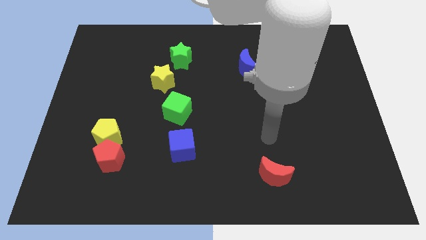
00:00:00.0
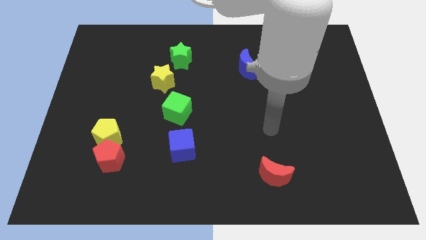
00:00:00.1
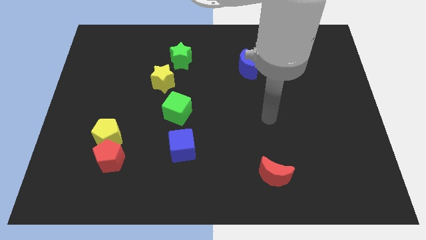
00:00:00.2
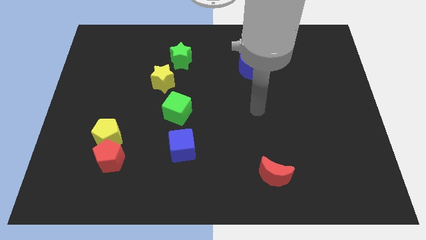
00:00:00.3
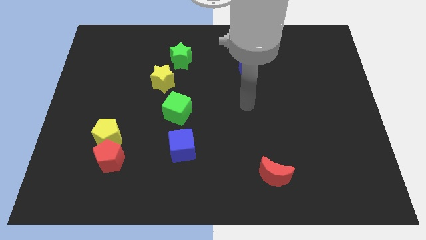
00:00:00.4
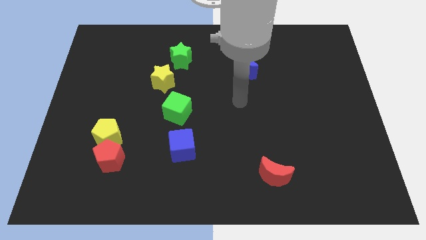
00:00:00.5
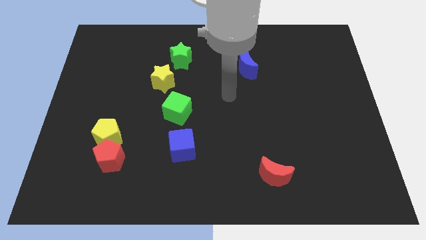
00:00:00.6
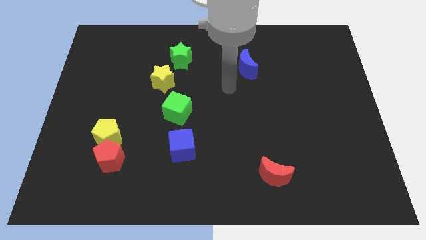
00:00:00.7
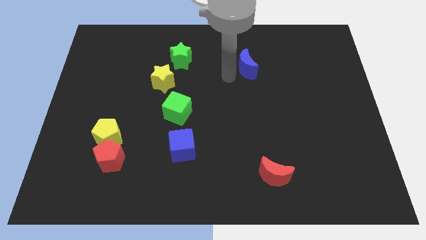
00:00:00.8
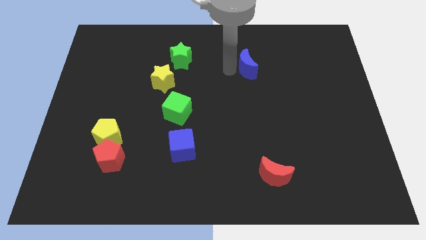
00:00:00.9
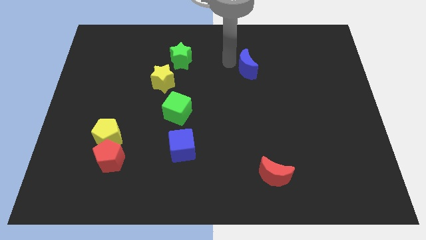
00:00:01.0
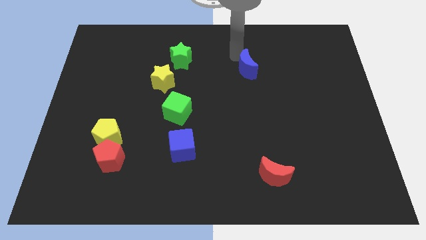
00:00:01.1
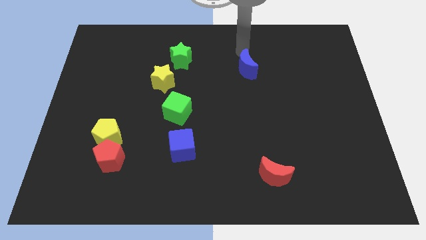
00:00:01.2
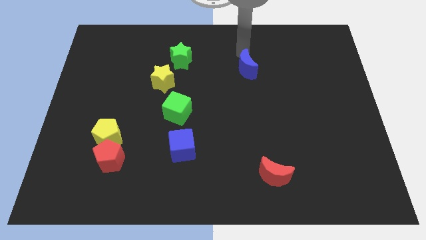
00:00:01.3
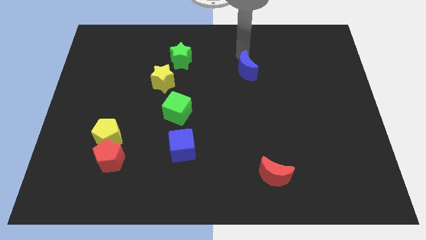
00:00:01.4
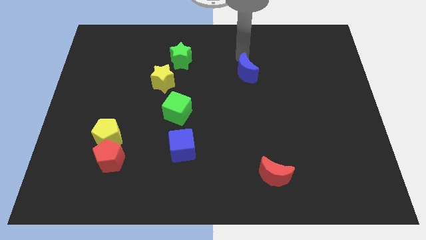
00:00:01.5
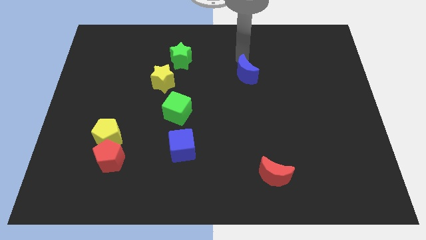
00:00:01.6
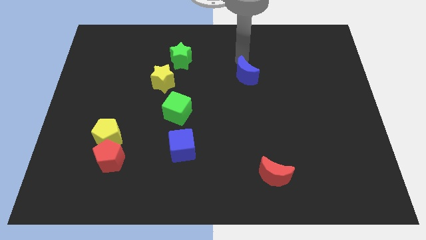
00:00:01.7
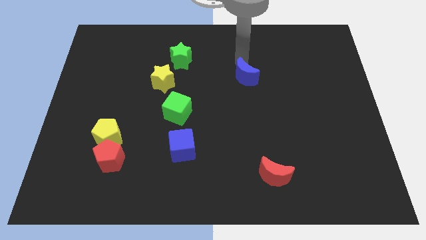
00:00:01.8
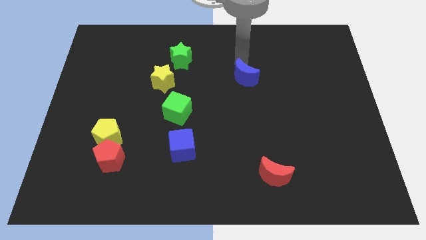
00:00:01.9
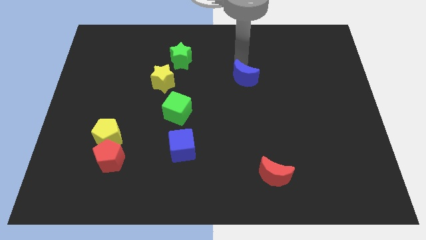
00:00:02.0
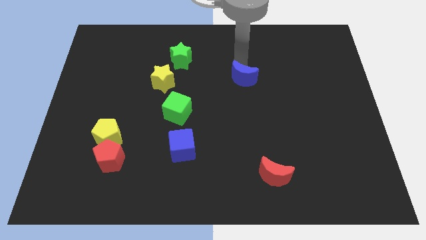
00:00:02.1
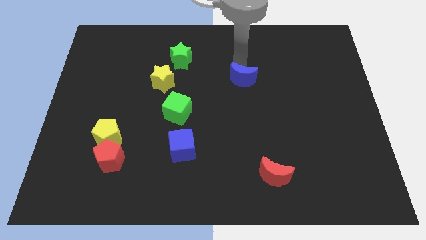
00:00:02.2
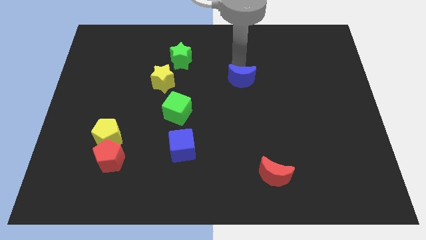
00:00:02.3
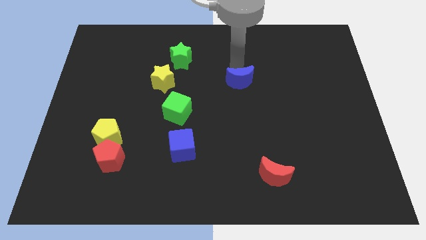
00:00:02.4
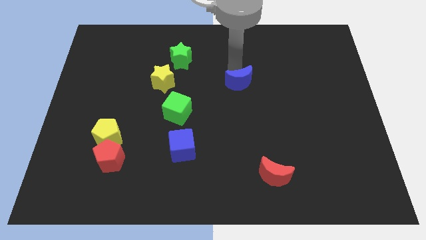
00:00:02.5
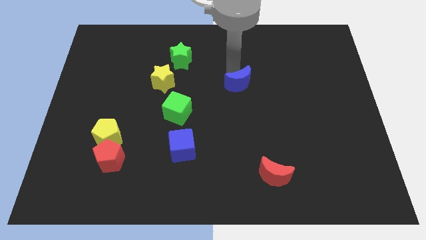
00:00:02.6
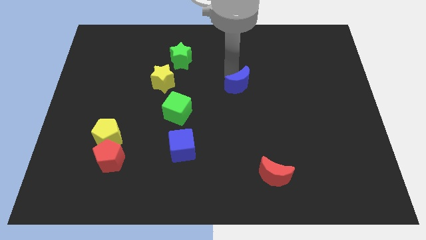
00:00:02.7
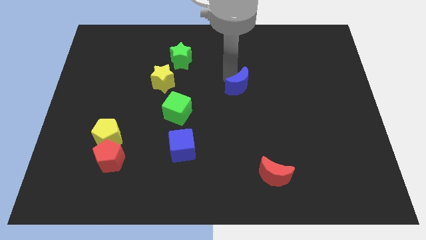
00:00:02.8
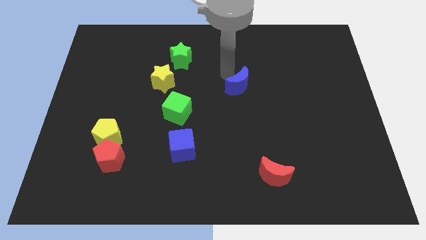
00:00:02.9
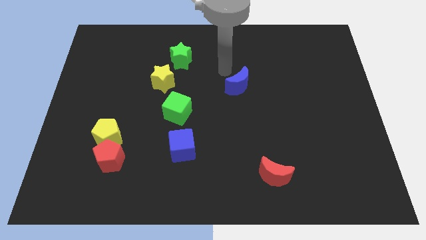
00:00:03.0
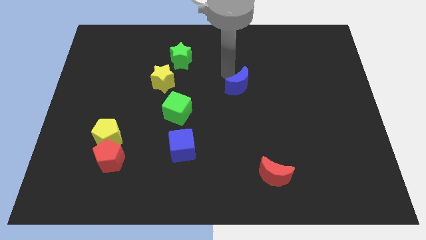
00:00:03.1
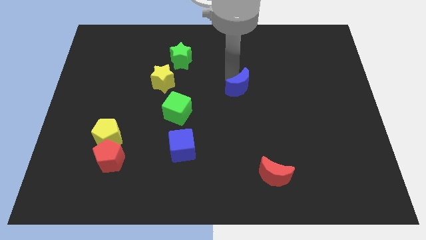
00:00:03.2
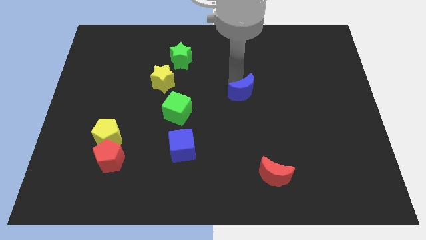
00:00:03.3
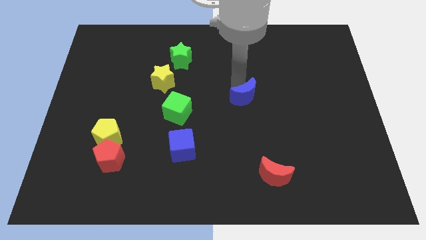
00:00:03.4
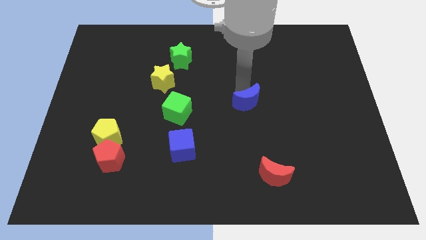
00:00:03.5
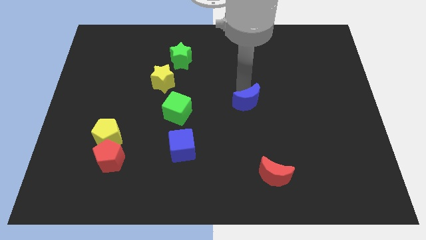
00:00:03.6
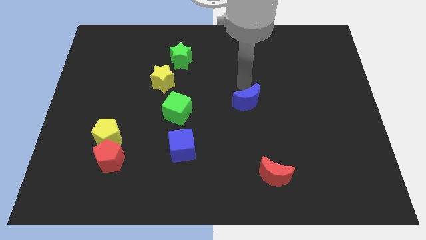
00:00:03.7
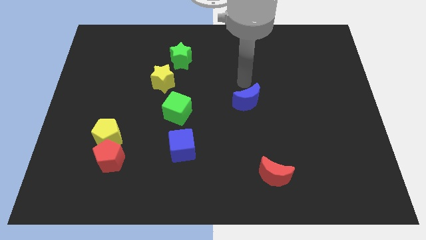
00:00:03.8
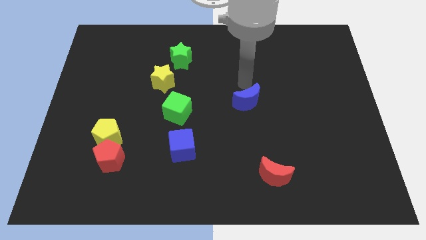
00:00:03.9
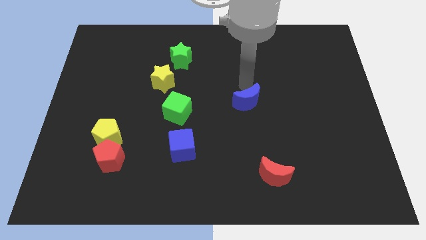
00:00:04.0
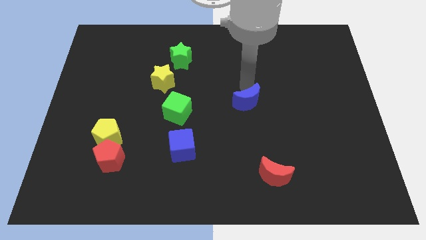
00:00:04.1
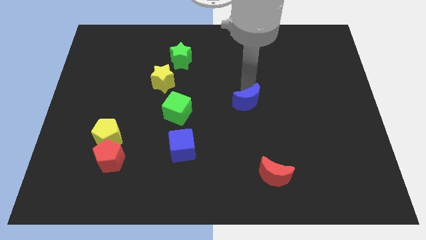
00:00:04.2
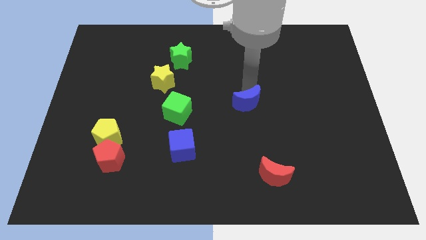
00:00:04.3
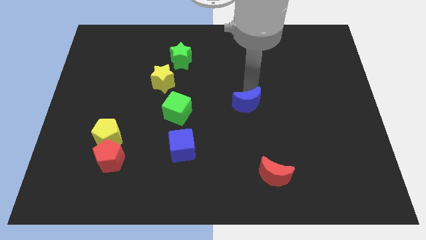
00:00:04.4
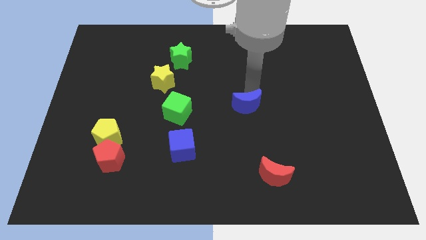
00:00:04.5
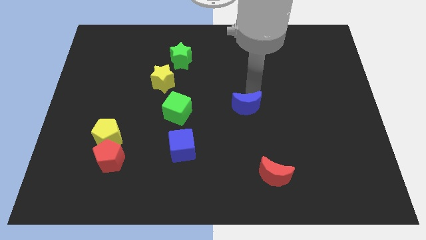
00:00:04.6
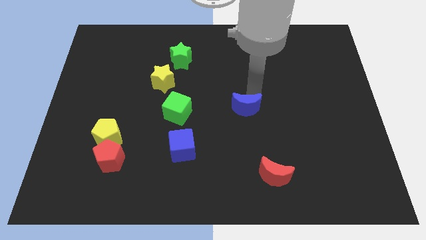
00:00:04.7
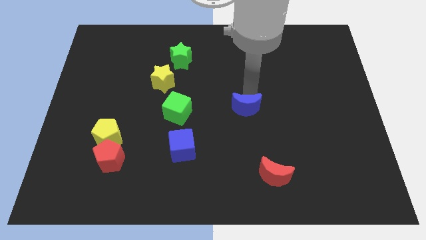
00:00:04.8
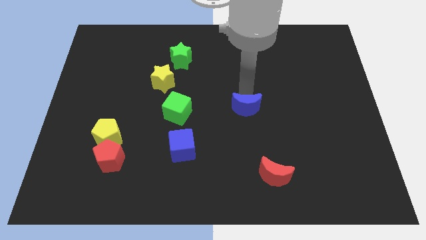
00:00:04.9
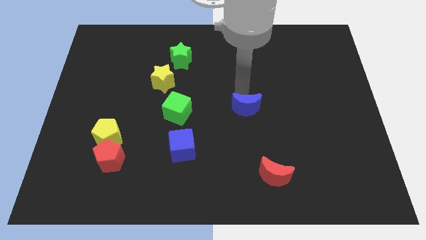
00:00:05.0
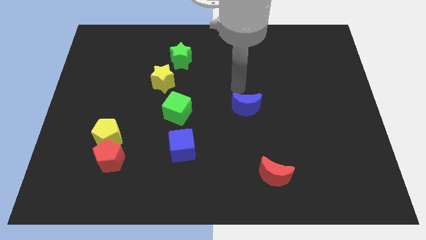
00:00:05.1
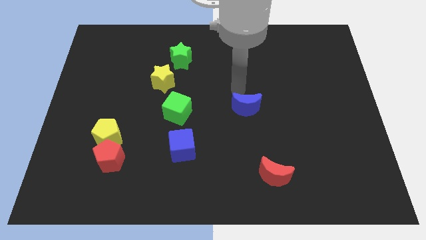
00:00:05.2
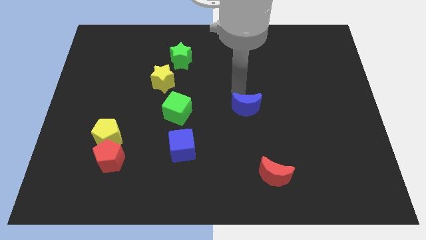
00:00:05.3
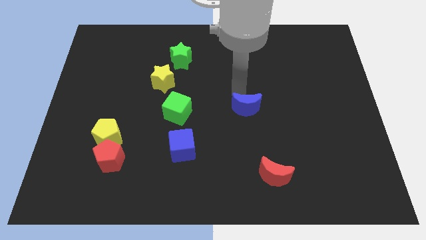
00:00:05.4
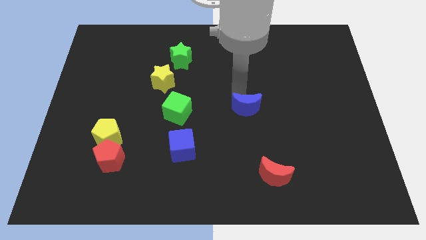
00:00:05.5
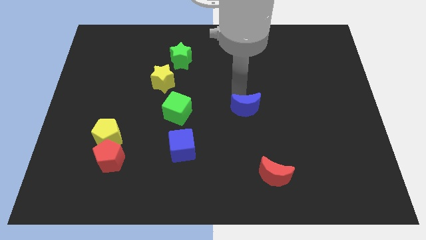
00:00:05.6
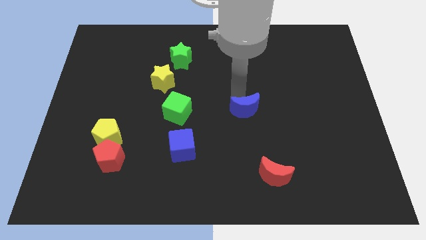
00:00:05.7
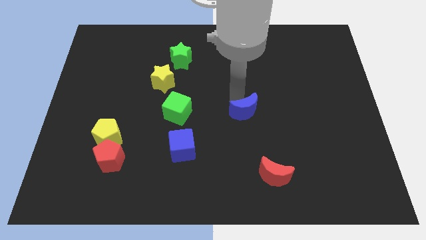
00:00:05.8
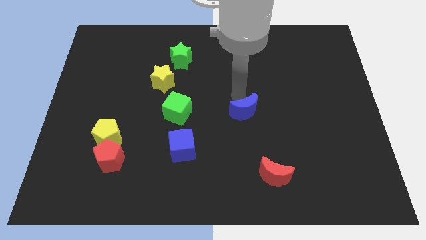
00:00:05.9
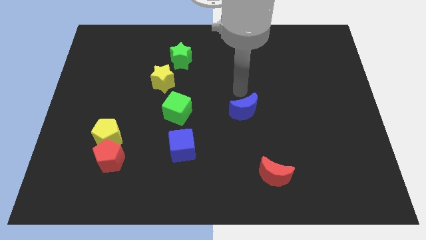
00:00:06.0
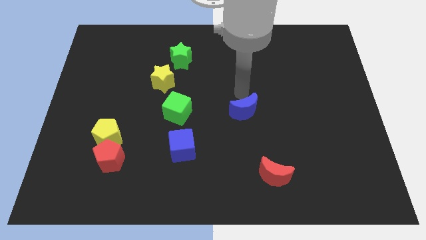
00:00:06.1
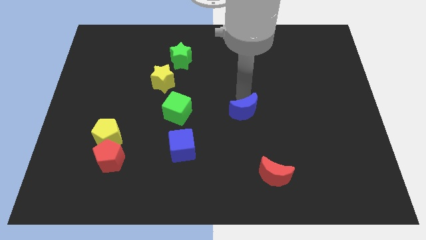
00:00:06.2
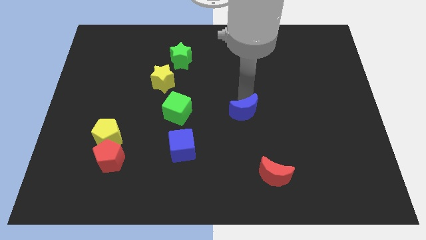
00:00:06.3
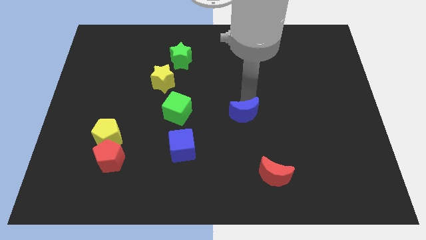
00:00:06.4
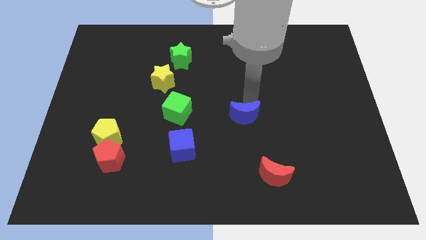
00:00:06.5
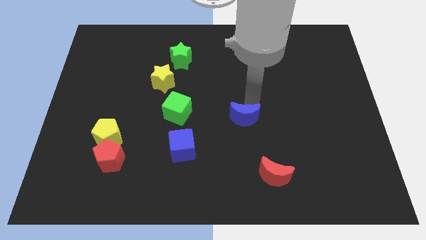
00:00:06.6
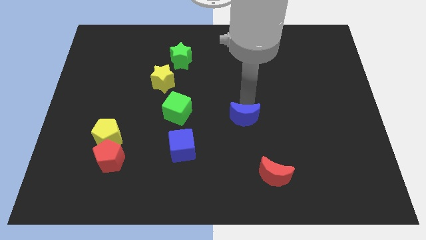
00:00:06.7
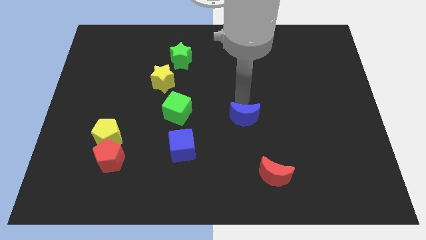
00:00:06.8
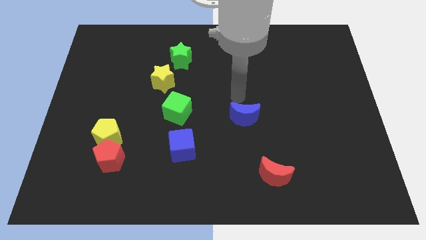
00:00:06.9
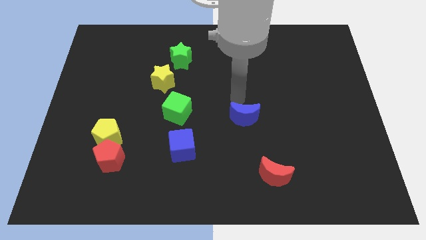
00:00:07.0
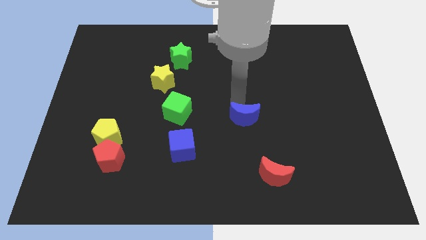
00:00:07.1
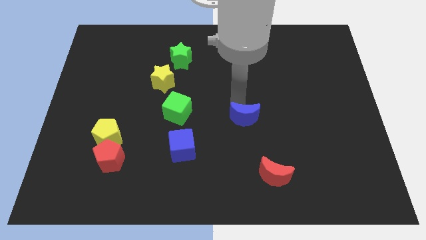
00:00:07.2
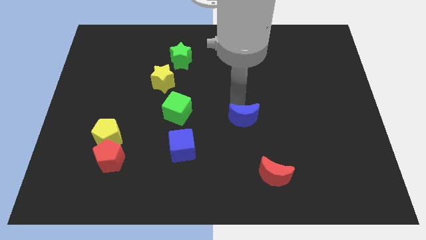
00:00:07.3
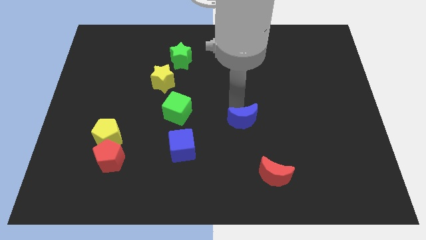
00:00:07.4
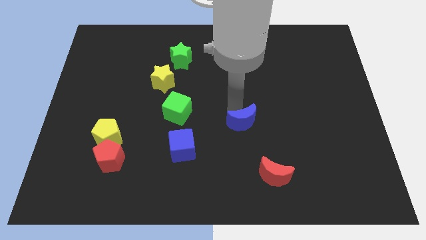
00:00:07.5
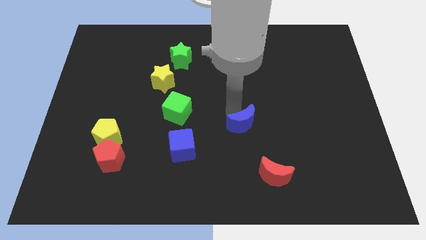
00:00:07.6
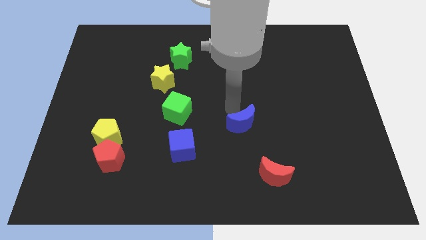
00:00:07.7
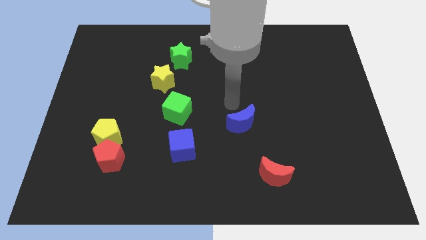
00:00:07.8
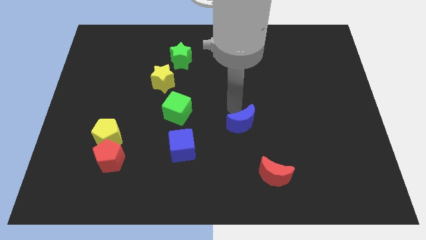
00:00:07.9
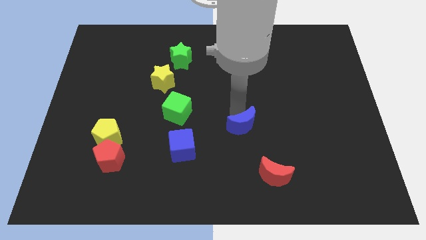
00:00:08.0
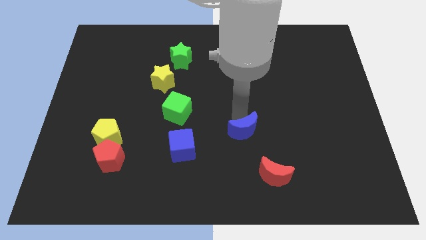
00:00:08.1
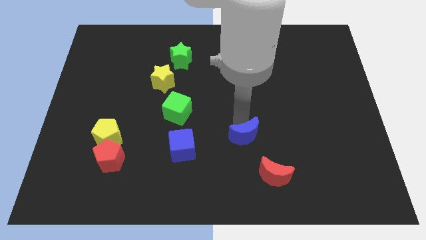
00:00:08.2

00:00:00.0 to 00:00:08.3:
push the blue moon downwards

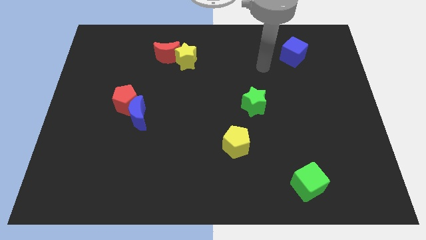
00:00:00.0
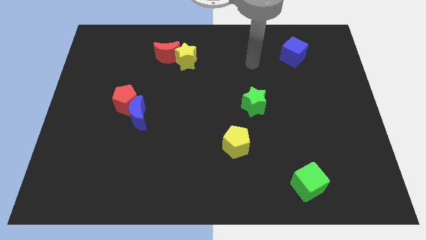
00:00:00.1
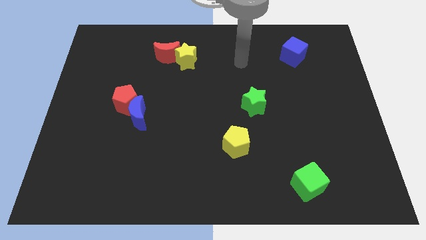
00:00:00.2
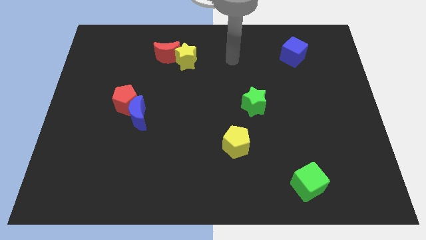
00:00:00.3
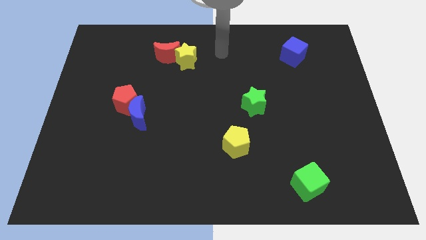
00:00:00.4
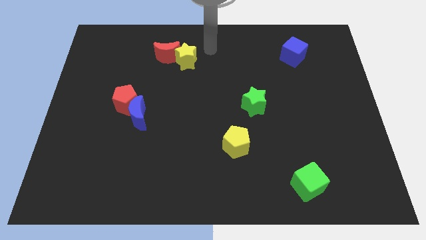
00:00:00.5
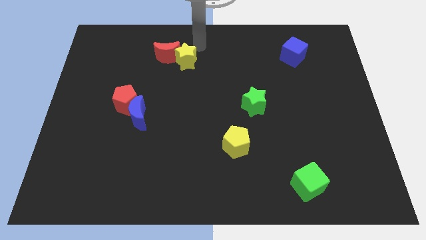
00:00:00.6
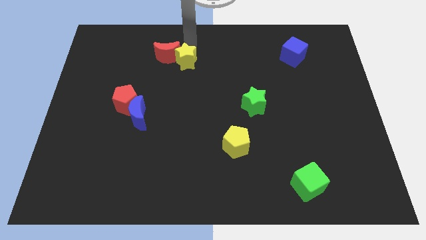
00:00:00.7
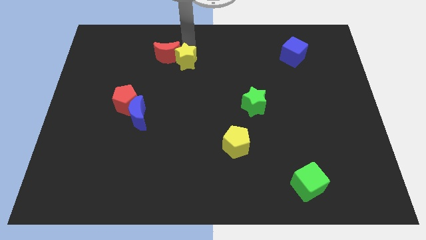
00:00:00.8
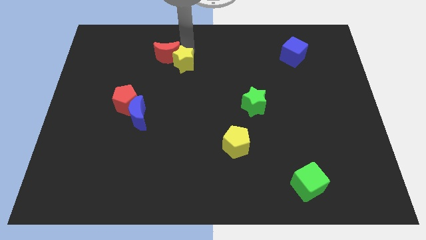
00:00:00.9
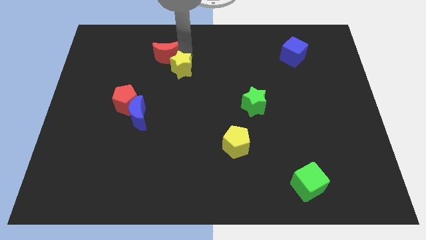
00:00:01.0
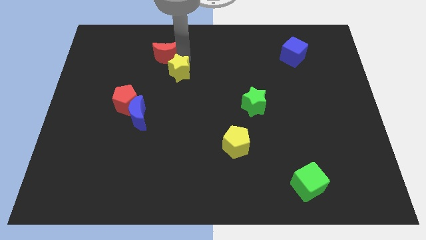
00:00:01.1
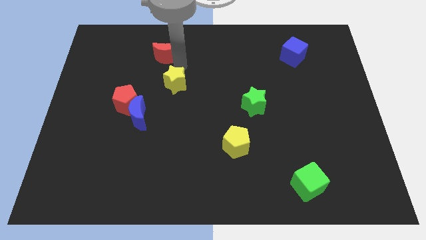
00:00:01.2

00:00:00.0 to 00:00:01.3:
slightly move the yellow star down
